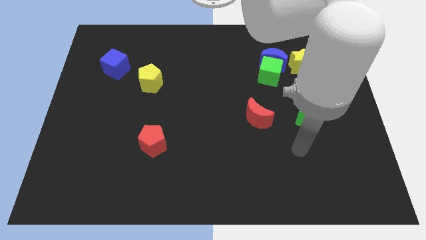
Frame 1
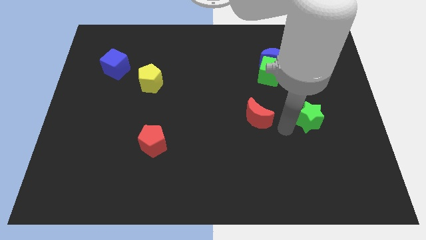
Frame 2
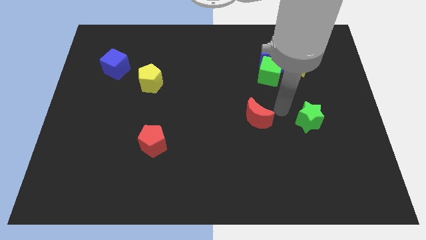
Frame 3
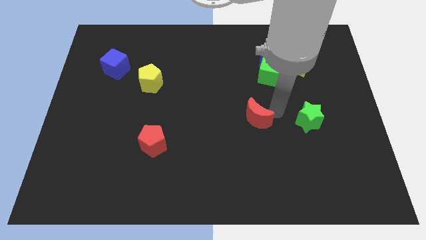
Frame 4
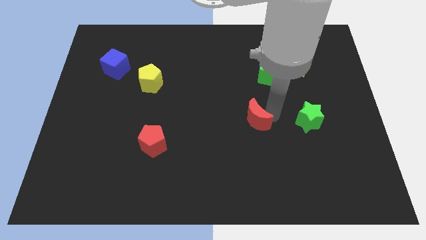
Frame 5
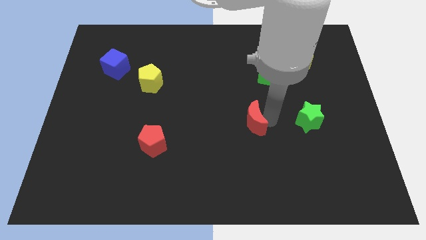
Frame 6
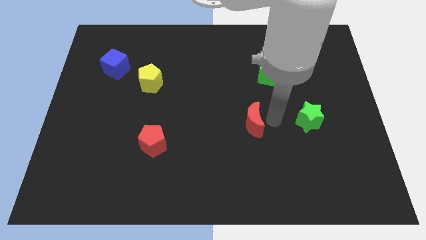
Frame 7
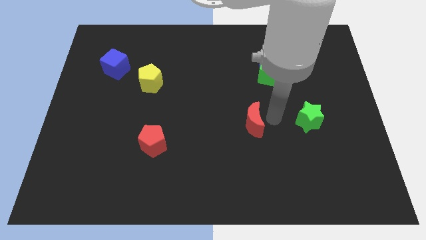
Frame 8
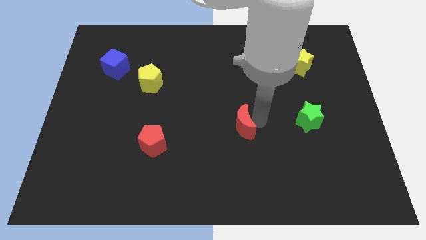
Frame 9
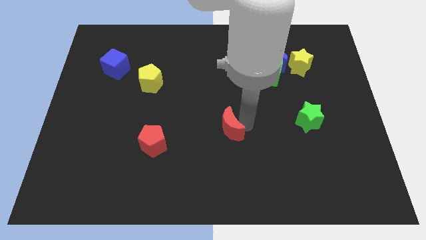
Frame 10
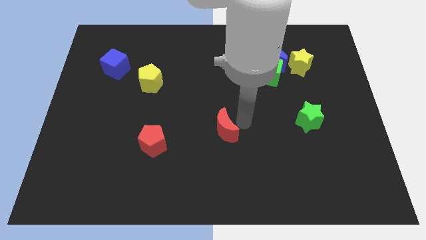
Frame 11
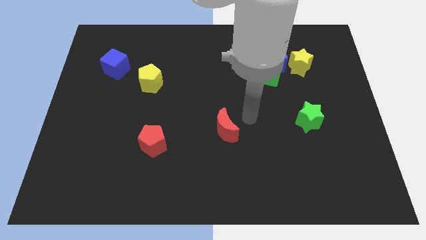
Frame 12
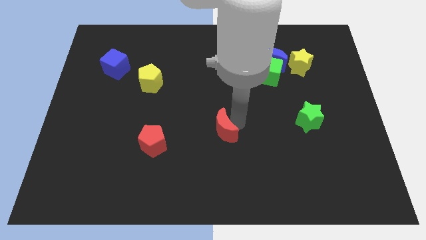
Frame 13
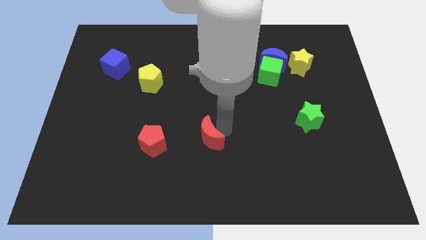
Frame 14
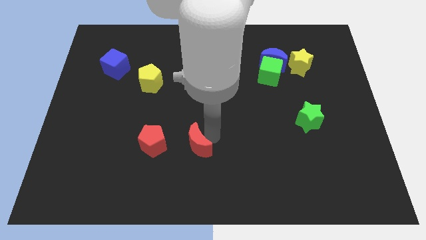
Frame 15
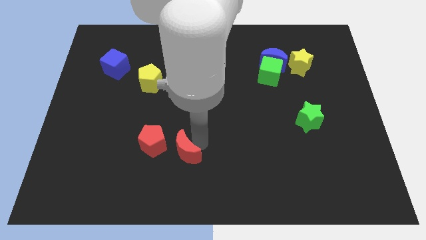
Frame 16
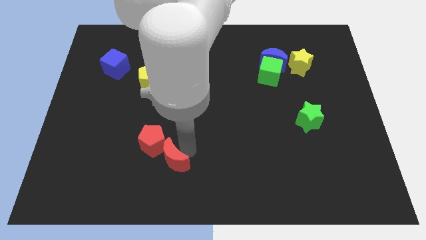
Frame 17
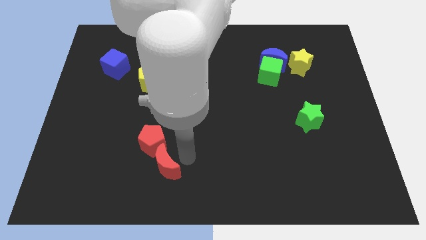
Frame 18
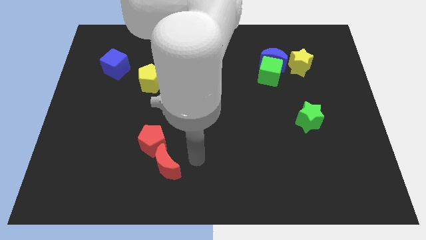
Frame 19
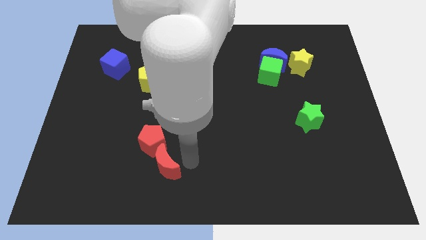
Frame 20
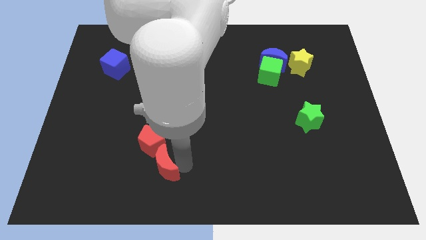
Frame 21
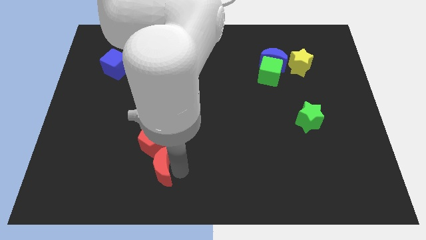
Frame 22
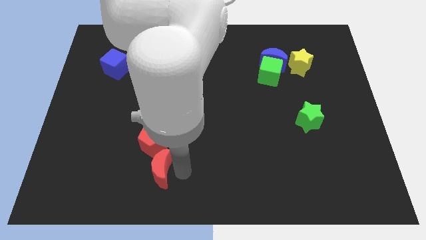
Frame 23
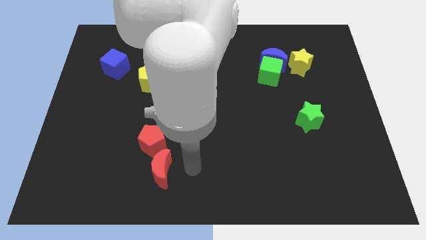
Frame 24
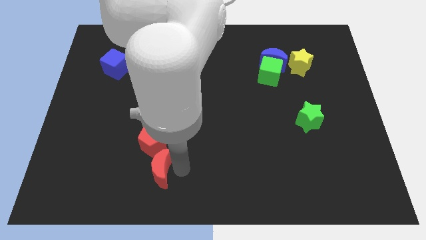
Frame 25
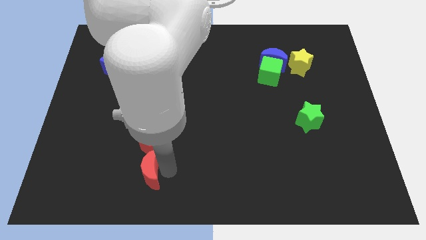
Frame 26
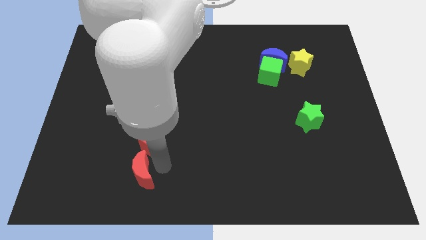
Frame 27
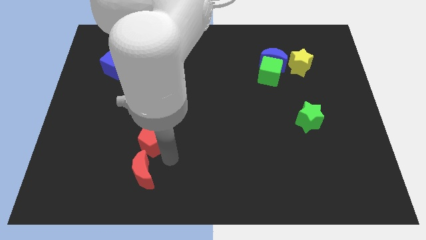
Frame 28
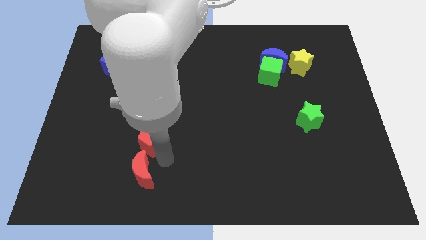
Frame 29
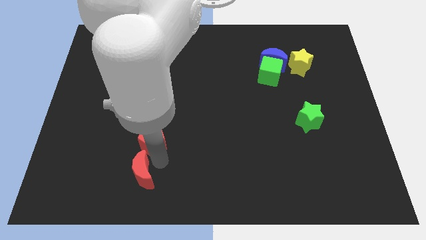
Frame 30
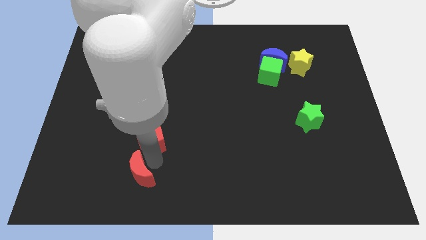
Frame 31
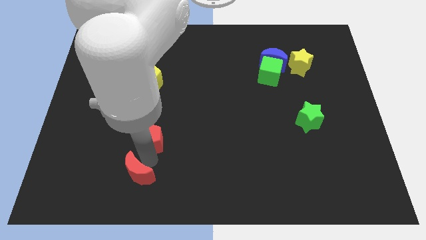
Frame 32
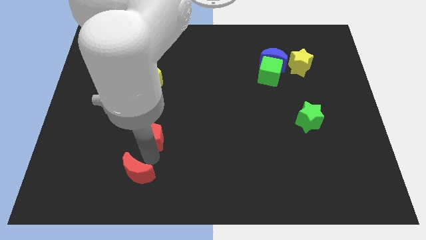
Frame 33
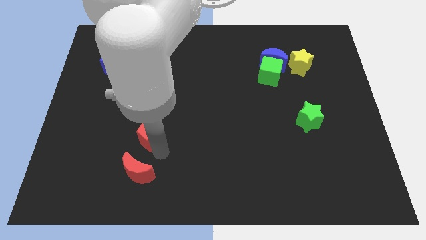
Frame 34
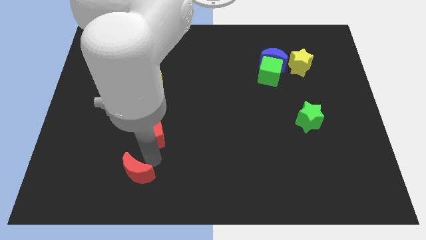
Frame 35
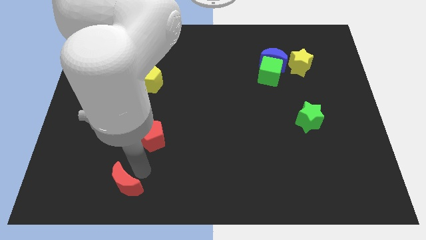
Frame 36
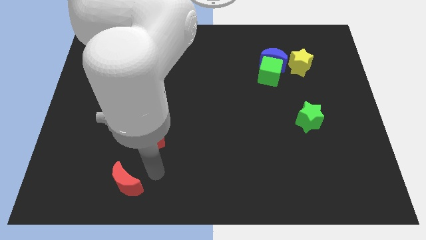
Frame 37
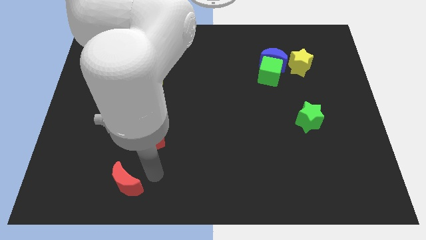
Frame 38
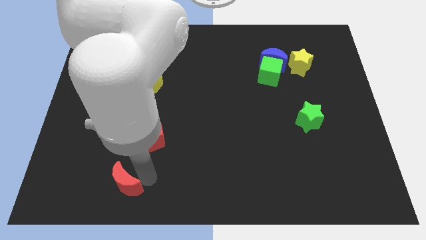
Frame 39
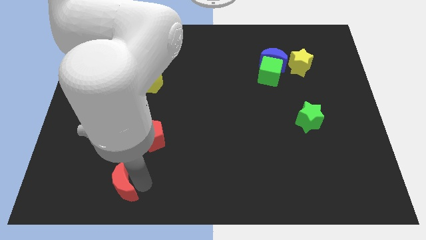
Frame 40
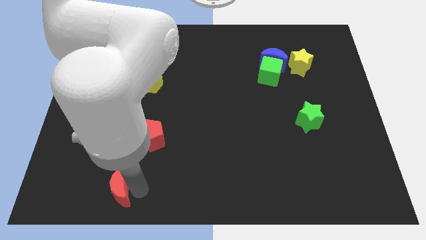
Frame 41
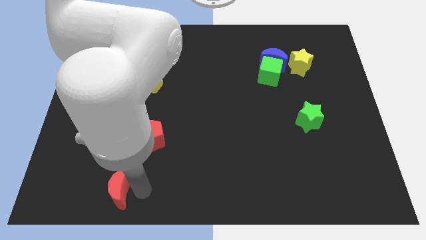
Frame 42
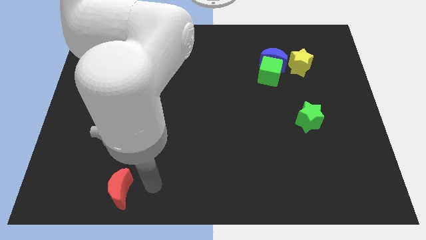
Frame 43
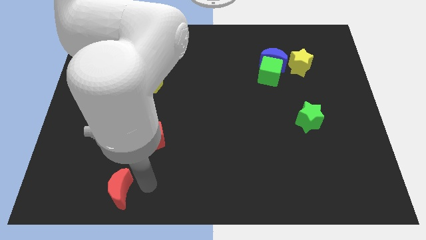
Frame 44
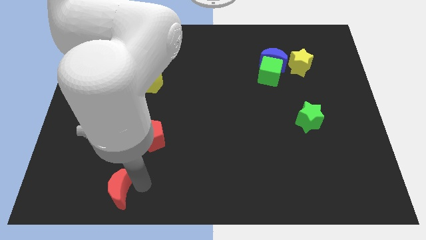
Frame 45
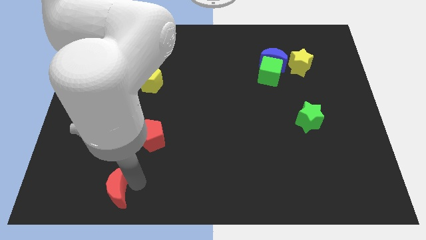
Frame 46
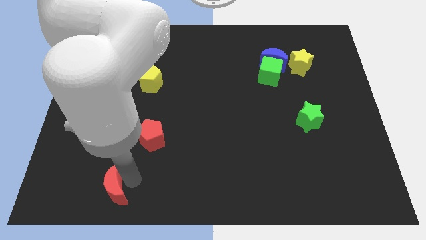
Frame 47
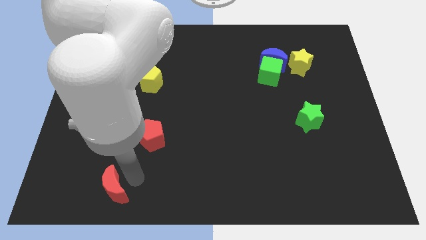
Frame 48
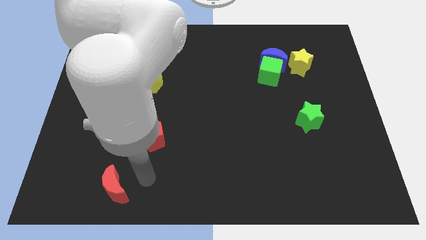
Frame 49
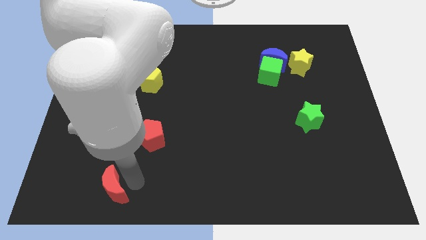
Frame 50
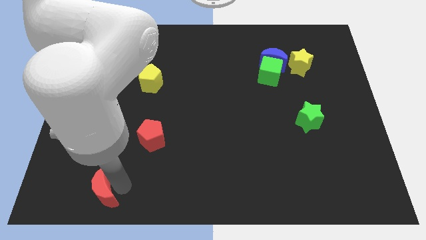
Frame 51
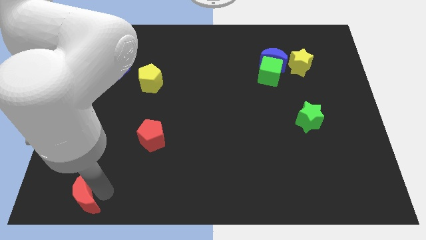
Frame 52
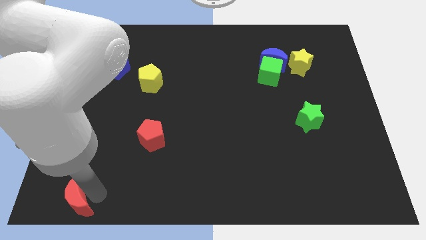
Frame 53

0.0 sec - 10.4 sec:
put the red moon to the bottom left
